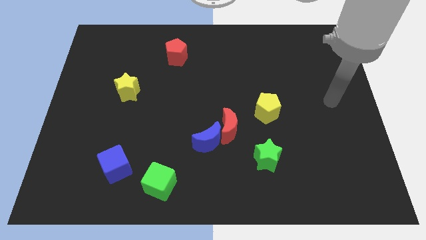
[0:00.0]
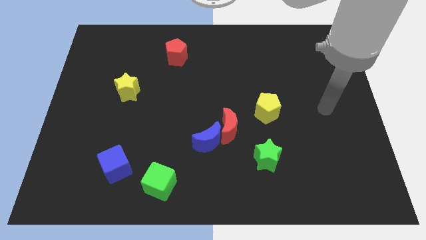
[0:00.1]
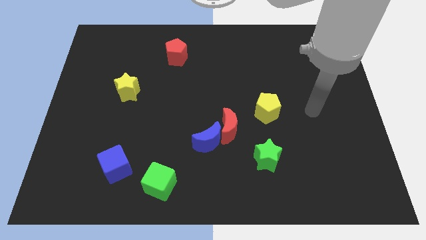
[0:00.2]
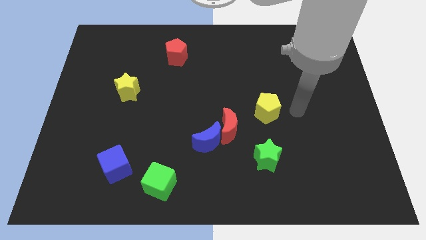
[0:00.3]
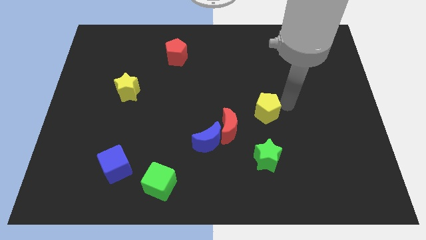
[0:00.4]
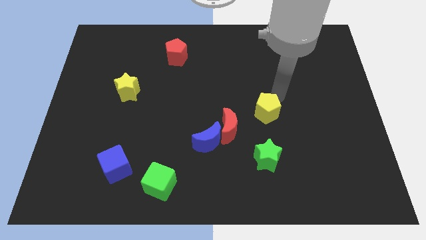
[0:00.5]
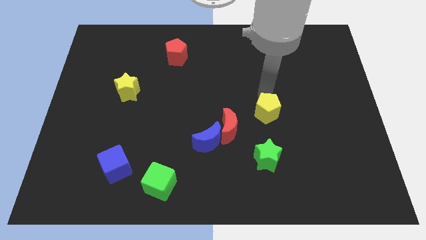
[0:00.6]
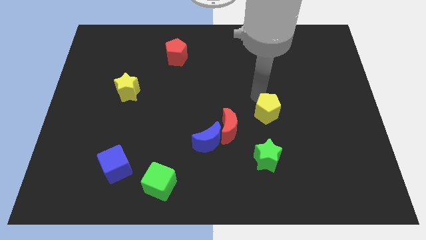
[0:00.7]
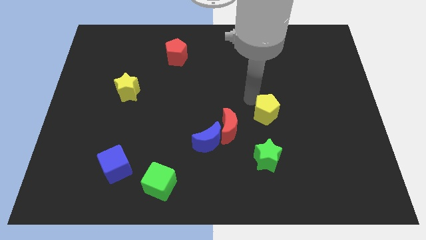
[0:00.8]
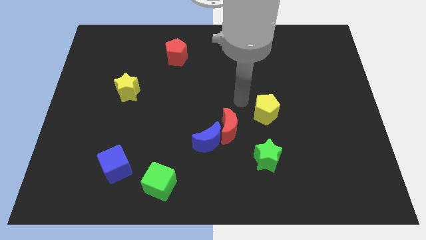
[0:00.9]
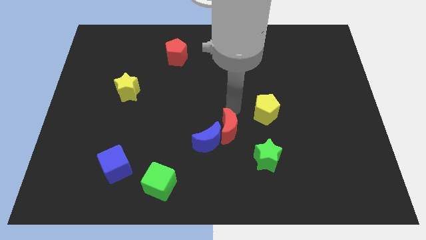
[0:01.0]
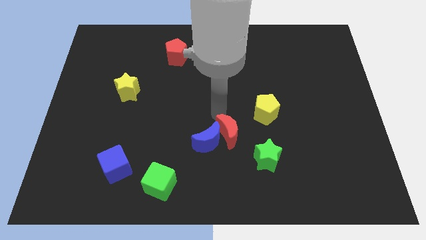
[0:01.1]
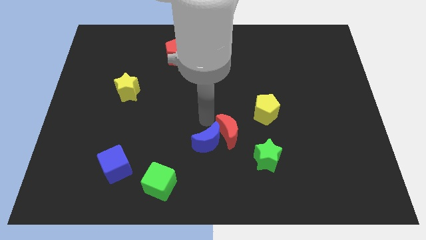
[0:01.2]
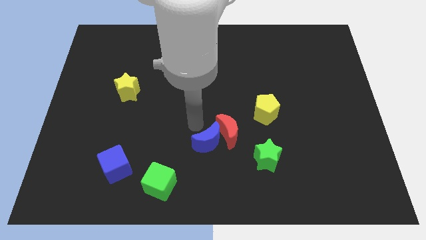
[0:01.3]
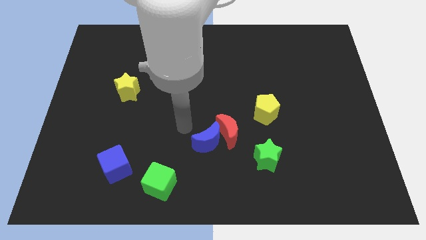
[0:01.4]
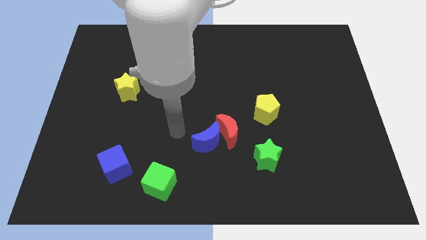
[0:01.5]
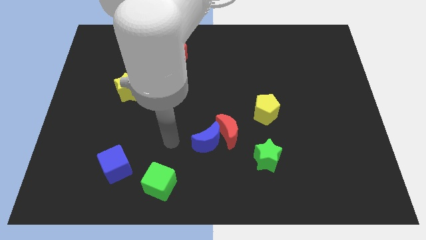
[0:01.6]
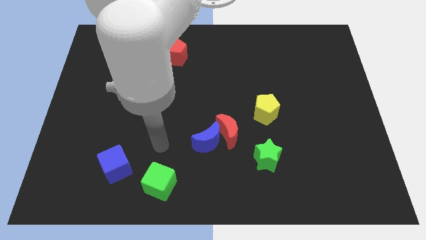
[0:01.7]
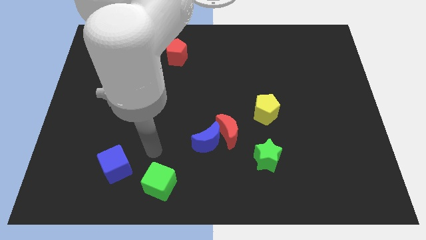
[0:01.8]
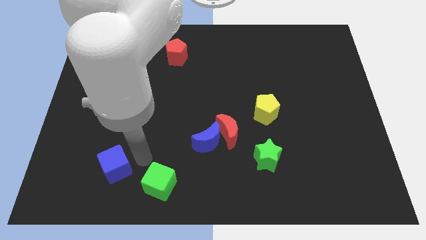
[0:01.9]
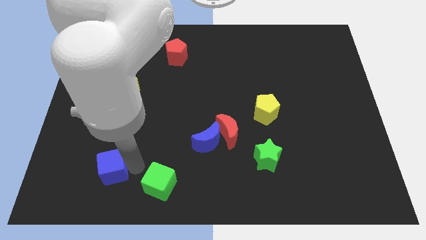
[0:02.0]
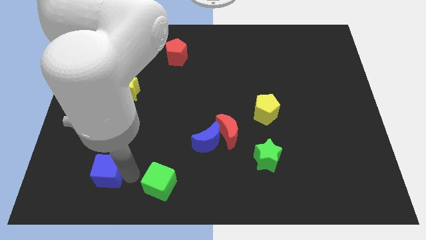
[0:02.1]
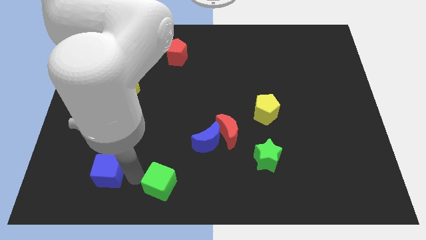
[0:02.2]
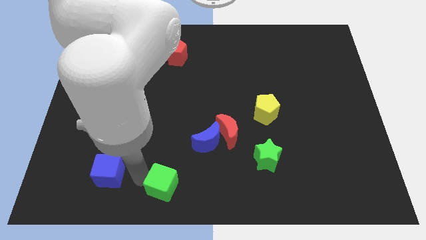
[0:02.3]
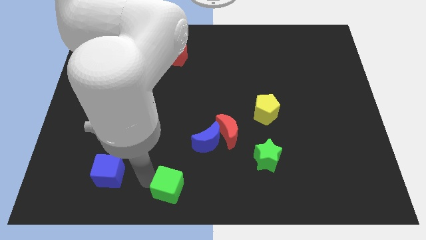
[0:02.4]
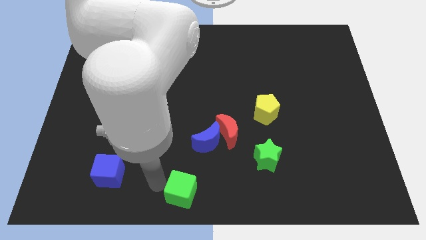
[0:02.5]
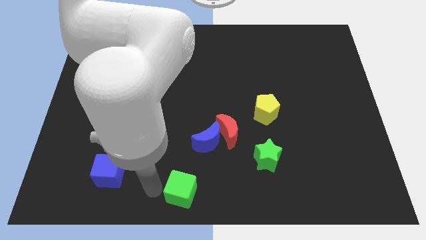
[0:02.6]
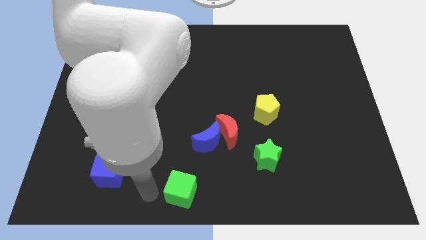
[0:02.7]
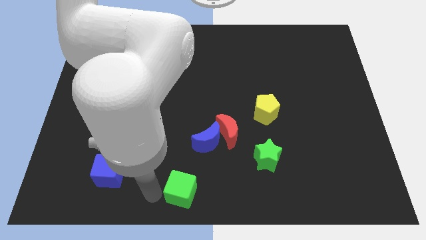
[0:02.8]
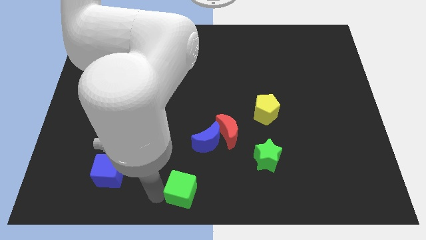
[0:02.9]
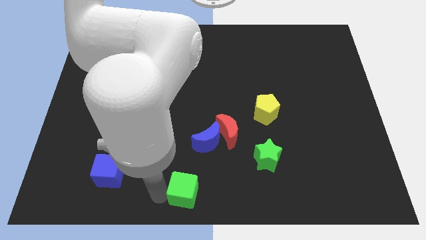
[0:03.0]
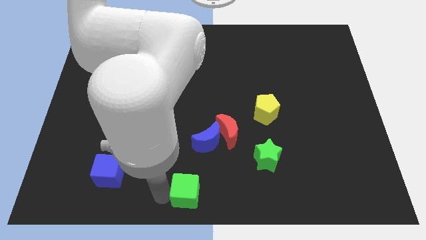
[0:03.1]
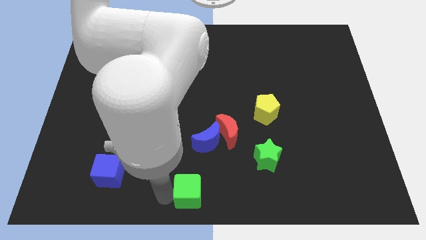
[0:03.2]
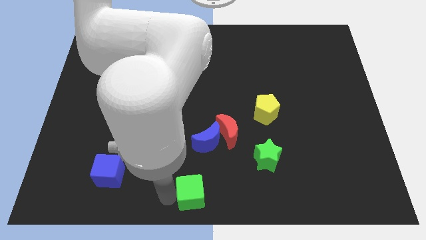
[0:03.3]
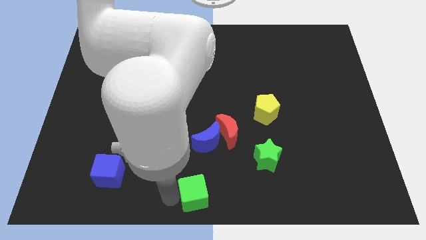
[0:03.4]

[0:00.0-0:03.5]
push the green cube a little to the right

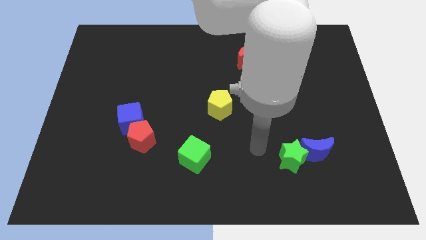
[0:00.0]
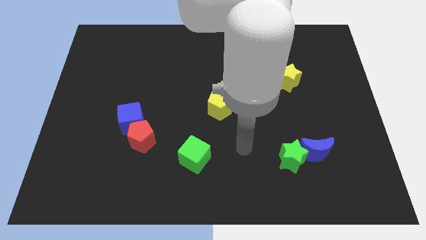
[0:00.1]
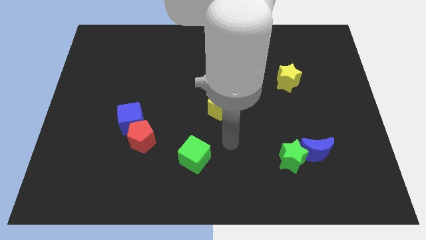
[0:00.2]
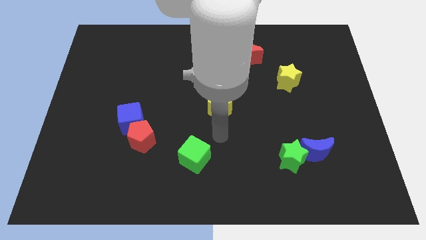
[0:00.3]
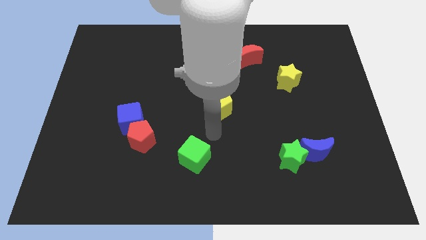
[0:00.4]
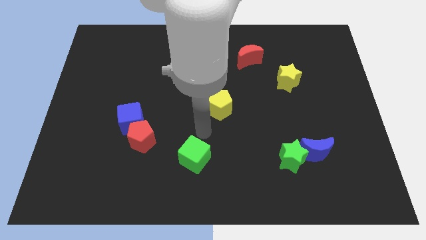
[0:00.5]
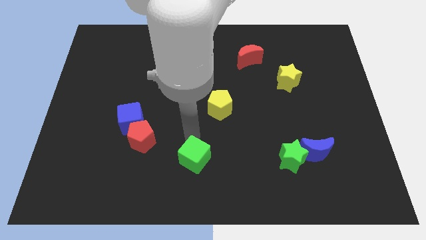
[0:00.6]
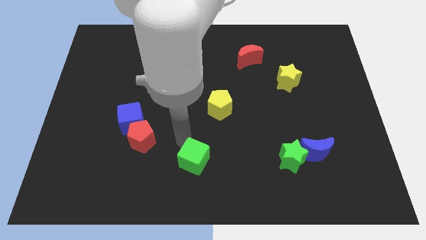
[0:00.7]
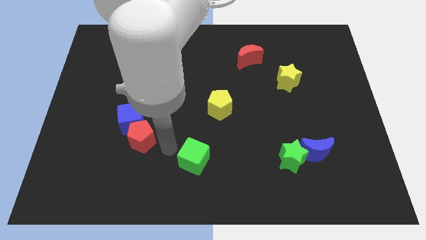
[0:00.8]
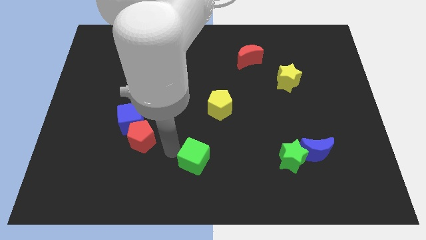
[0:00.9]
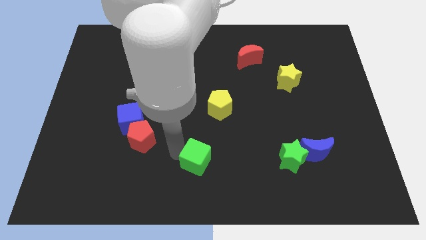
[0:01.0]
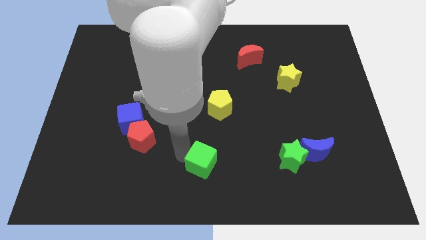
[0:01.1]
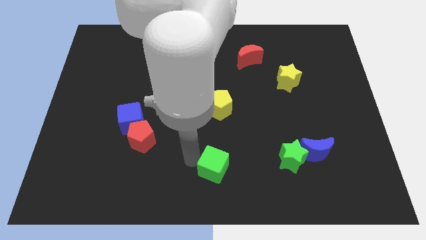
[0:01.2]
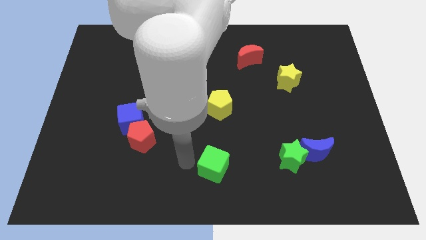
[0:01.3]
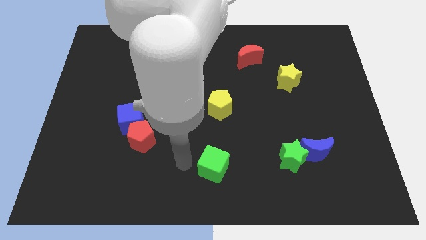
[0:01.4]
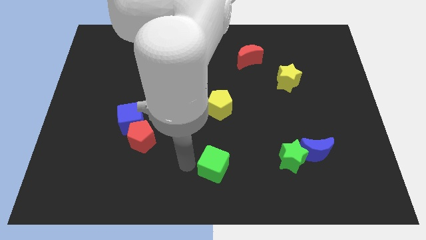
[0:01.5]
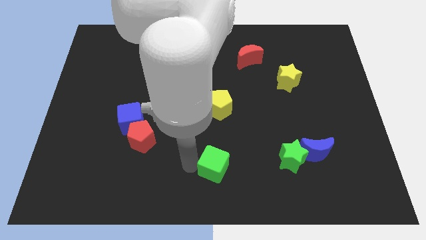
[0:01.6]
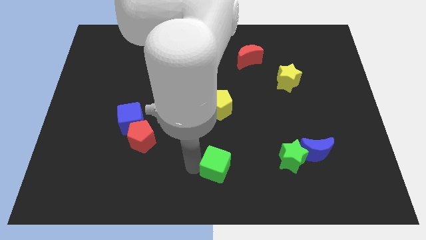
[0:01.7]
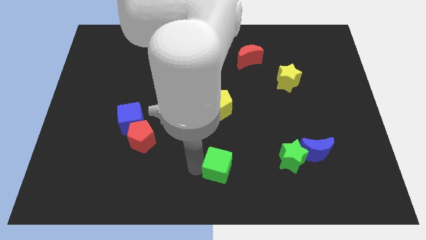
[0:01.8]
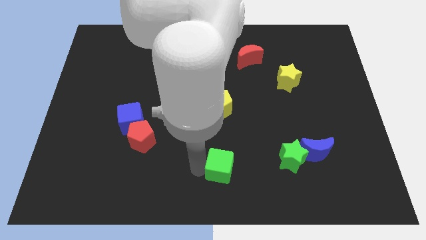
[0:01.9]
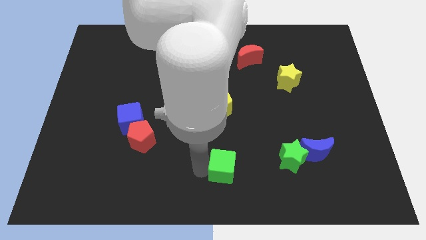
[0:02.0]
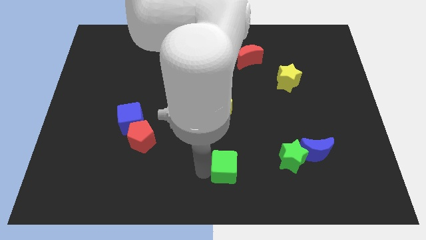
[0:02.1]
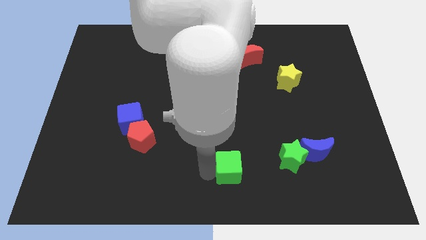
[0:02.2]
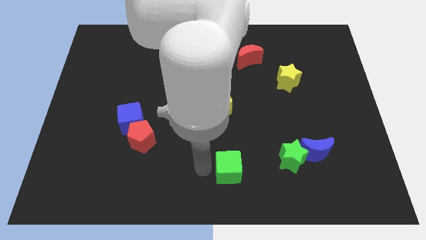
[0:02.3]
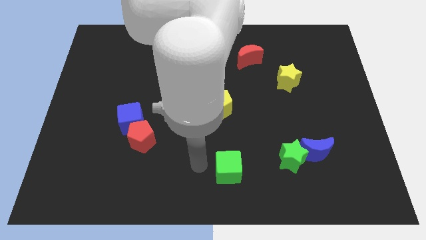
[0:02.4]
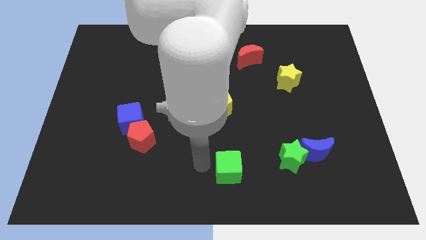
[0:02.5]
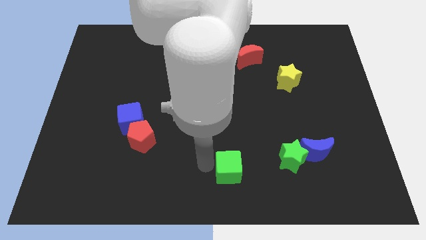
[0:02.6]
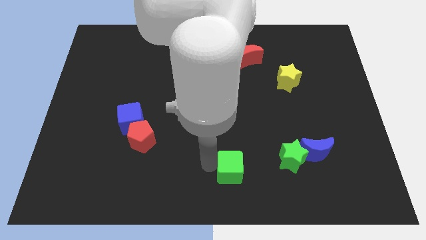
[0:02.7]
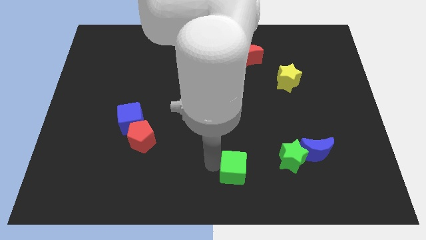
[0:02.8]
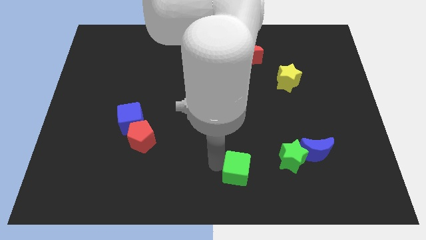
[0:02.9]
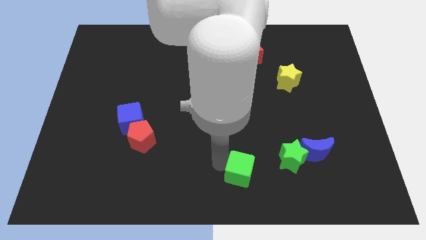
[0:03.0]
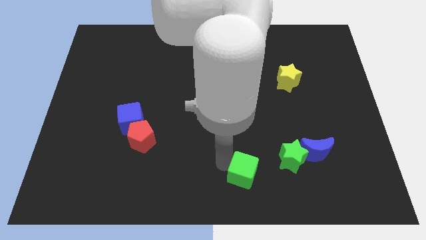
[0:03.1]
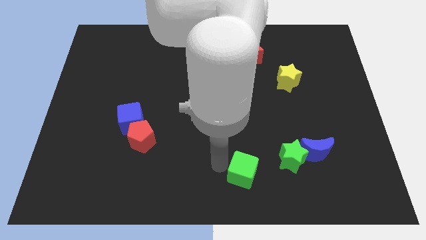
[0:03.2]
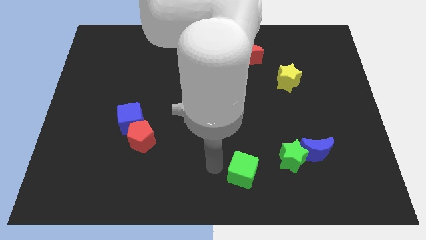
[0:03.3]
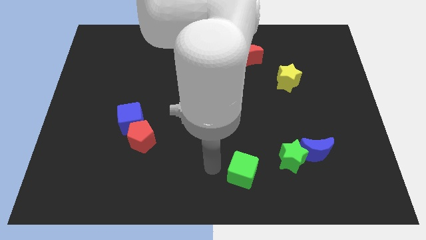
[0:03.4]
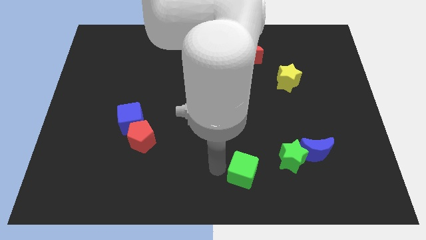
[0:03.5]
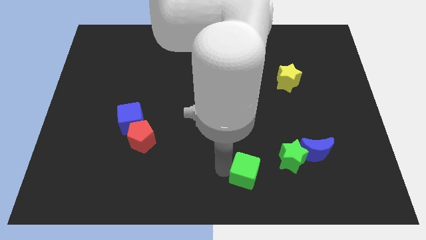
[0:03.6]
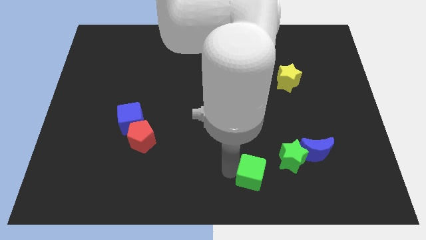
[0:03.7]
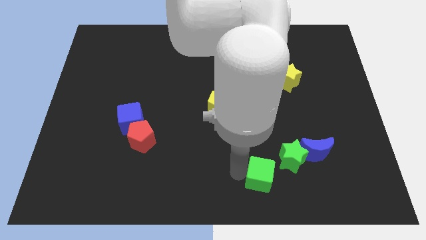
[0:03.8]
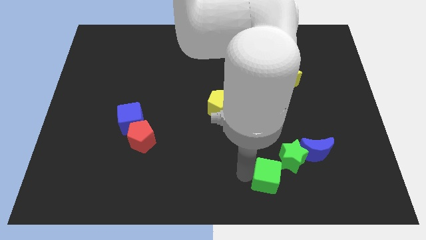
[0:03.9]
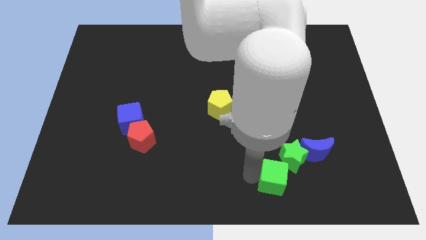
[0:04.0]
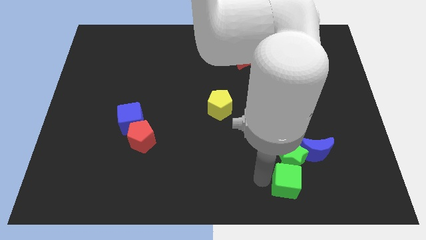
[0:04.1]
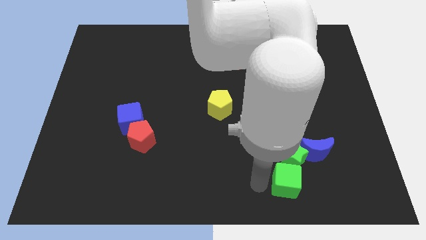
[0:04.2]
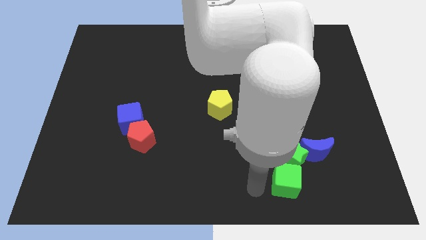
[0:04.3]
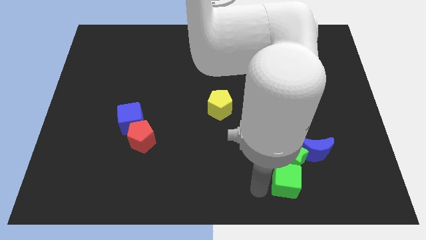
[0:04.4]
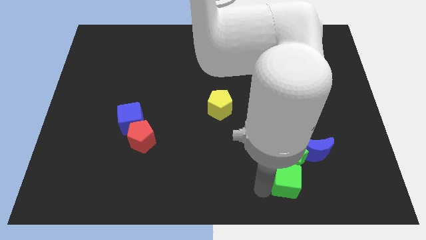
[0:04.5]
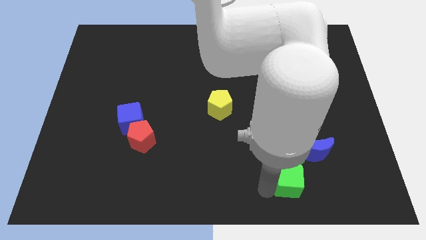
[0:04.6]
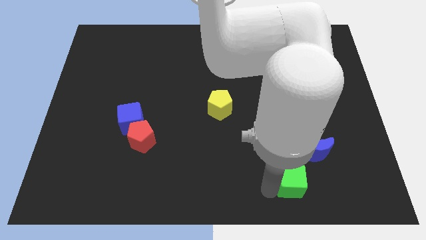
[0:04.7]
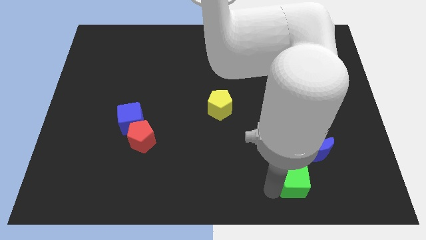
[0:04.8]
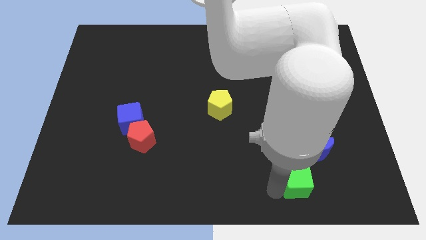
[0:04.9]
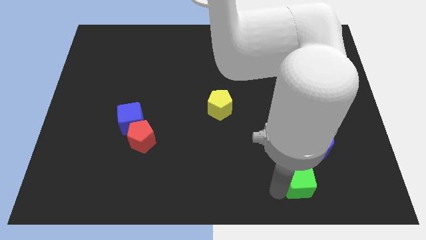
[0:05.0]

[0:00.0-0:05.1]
slide the green cube right

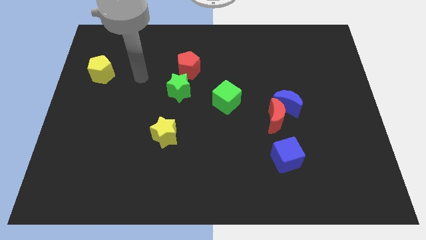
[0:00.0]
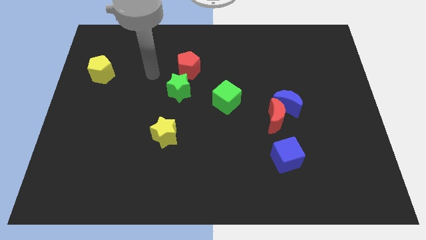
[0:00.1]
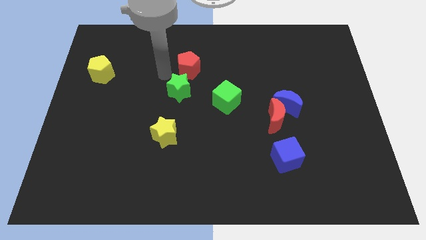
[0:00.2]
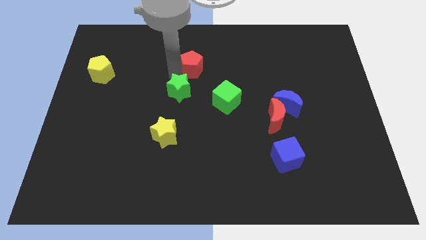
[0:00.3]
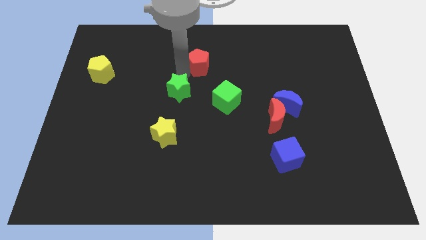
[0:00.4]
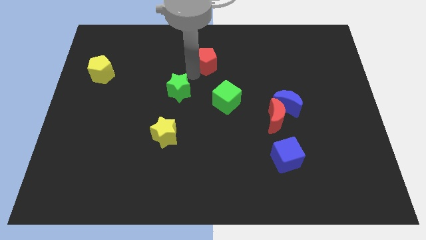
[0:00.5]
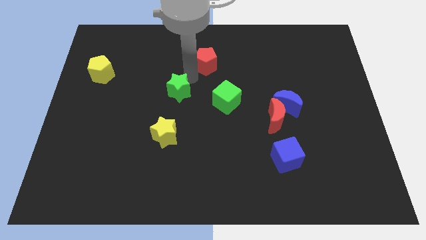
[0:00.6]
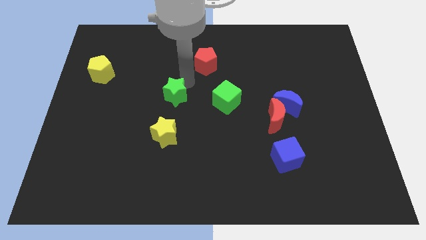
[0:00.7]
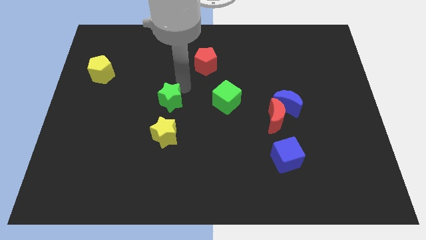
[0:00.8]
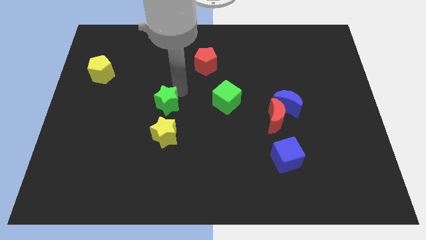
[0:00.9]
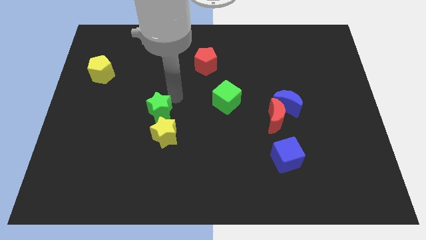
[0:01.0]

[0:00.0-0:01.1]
slide the green star down and to the left diagonally somewhat
